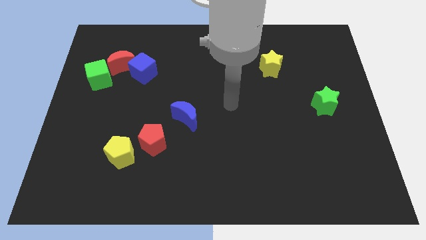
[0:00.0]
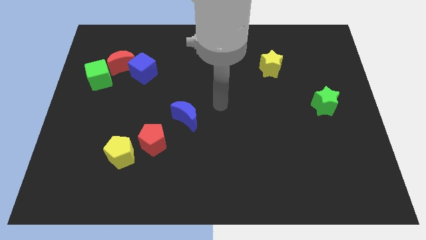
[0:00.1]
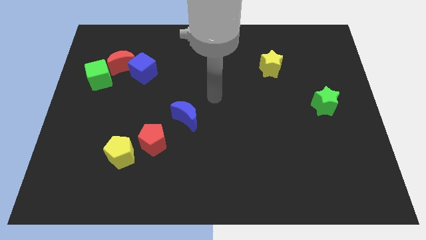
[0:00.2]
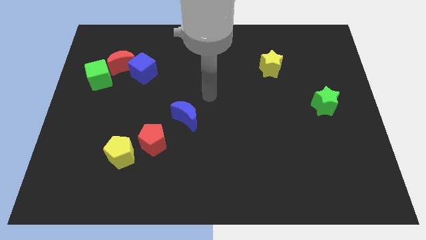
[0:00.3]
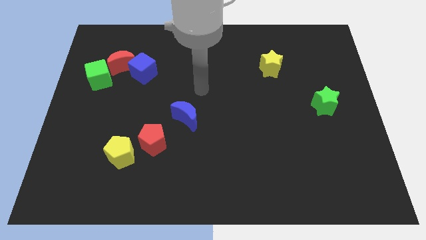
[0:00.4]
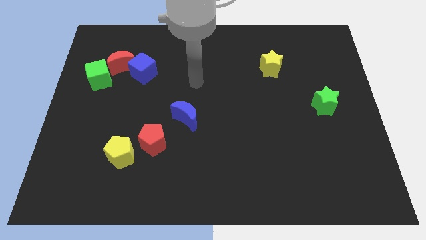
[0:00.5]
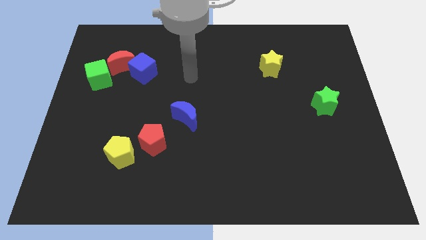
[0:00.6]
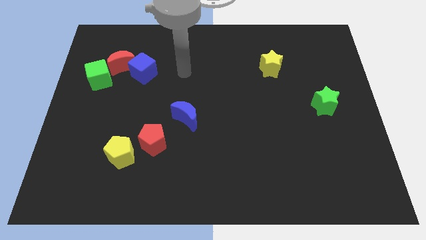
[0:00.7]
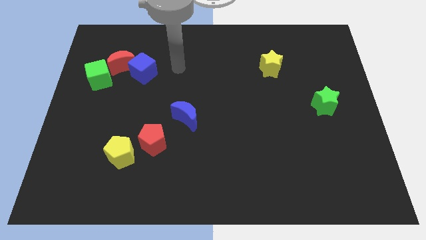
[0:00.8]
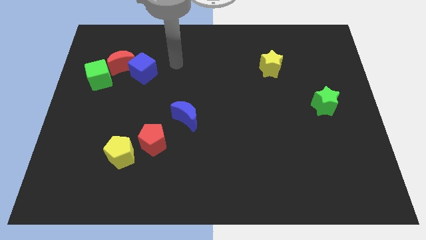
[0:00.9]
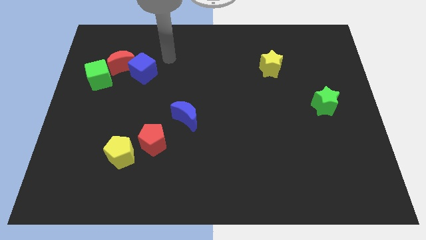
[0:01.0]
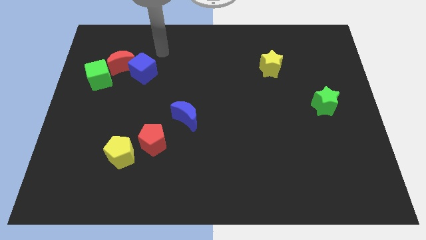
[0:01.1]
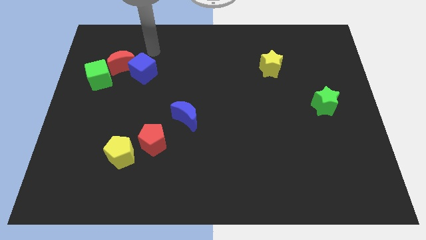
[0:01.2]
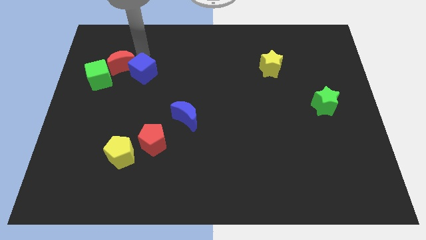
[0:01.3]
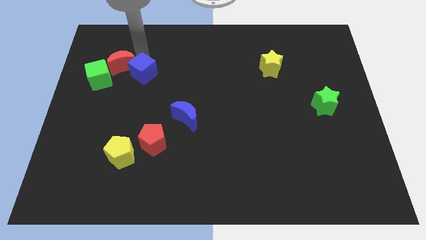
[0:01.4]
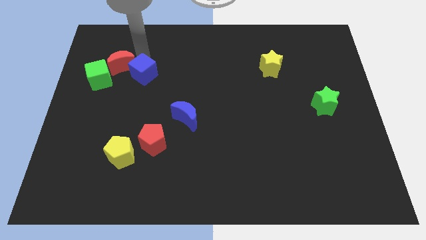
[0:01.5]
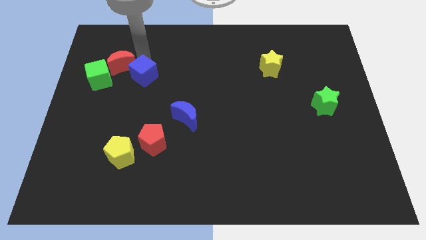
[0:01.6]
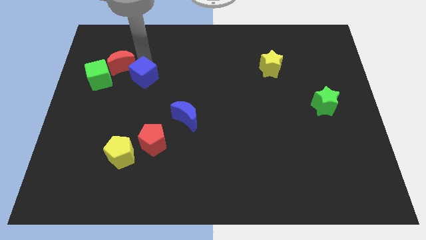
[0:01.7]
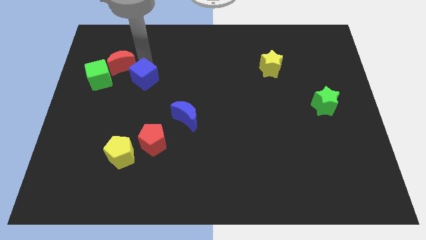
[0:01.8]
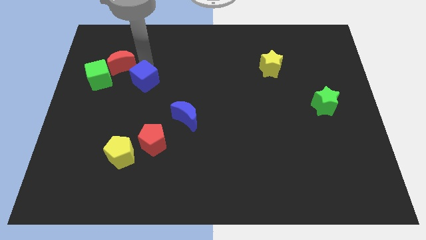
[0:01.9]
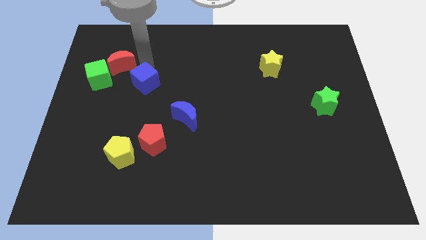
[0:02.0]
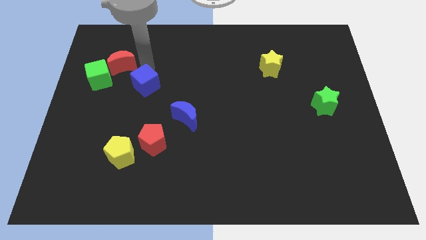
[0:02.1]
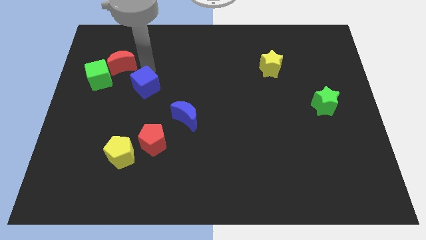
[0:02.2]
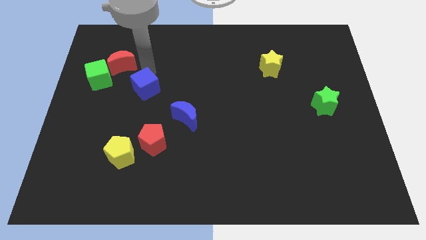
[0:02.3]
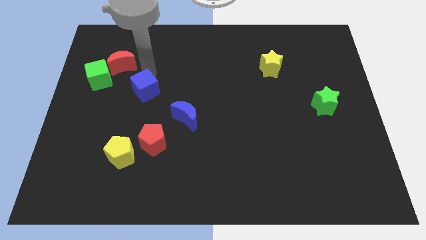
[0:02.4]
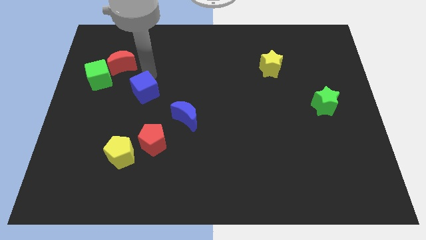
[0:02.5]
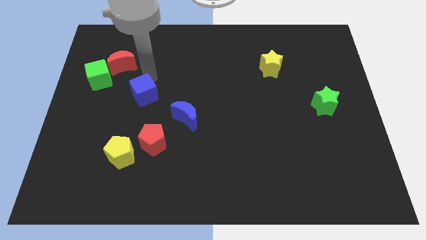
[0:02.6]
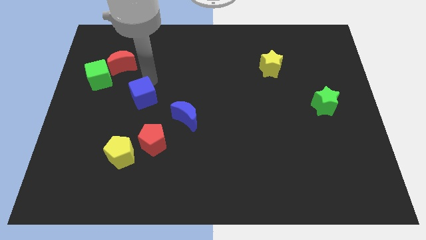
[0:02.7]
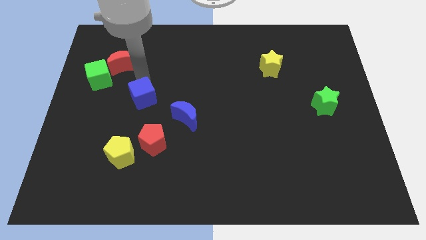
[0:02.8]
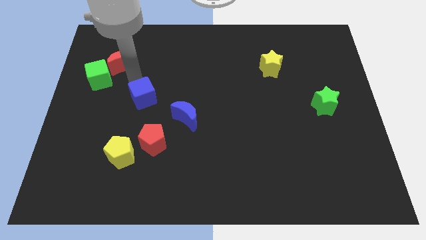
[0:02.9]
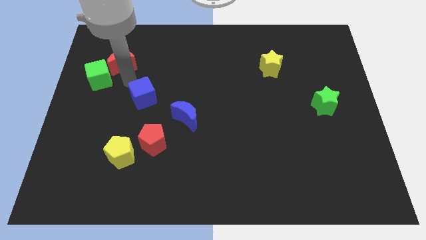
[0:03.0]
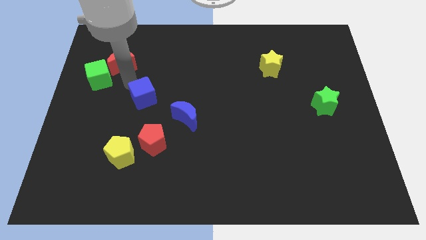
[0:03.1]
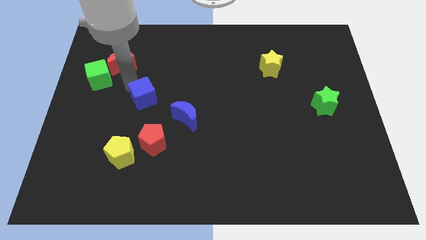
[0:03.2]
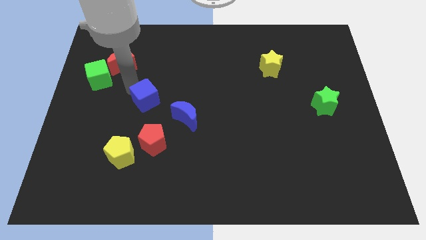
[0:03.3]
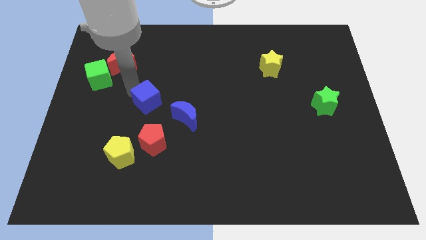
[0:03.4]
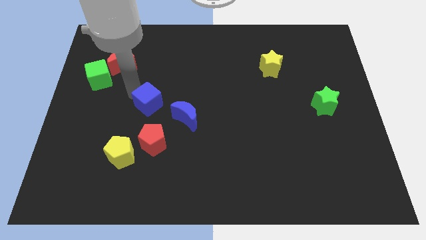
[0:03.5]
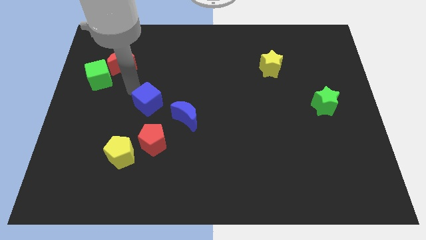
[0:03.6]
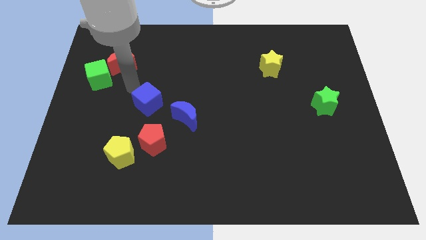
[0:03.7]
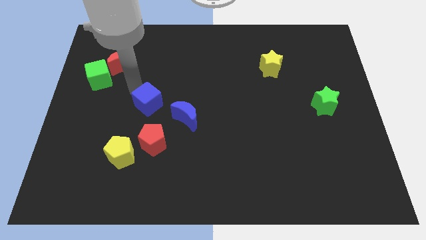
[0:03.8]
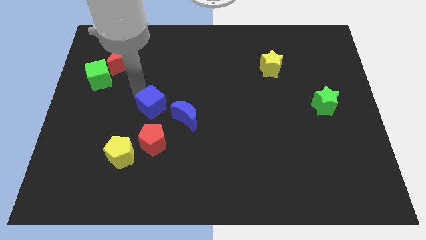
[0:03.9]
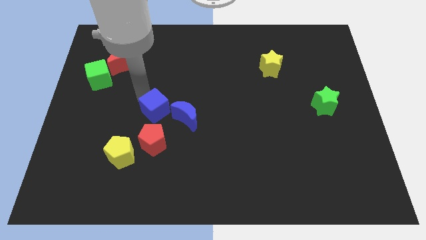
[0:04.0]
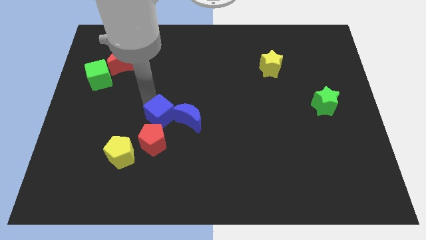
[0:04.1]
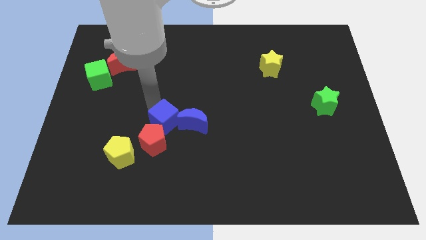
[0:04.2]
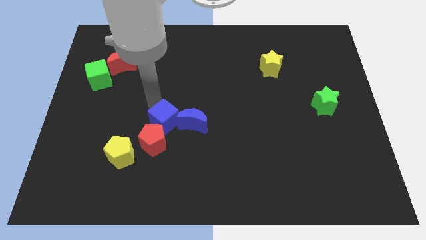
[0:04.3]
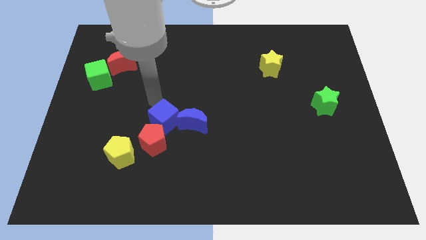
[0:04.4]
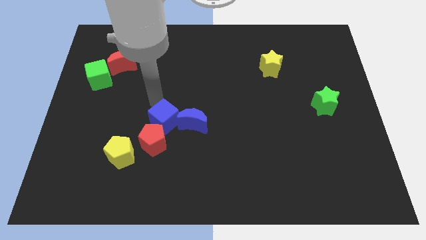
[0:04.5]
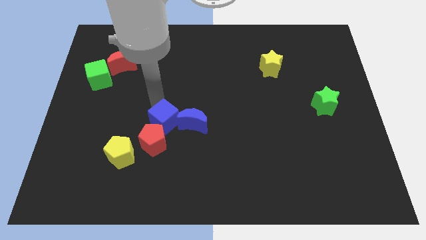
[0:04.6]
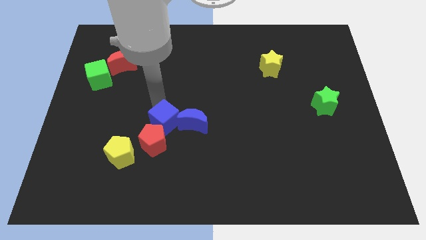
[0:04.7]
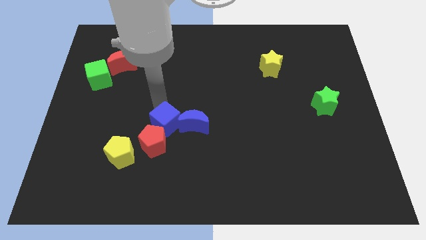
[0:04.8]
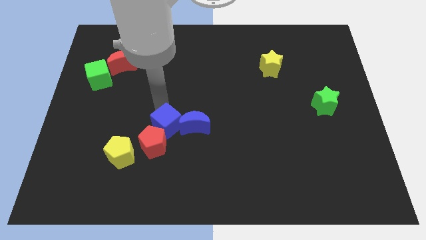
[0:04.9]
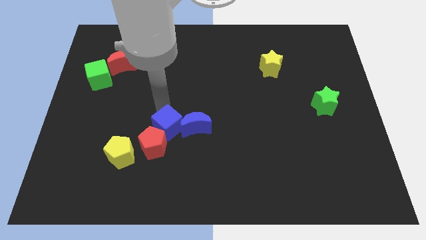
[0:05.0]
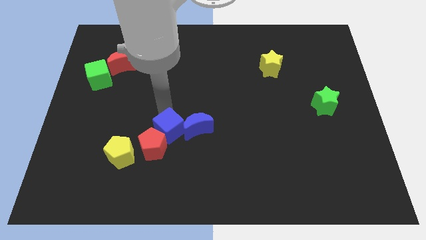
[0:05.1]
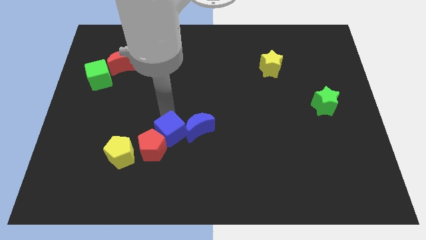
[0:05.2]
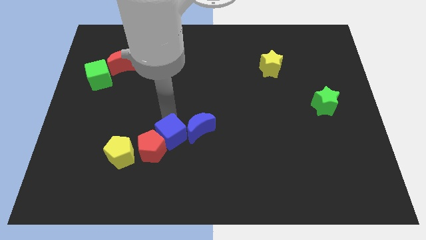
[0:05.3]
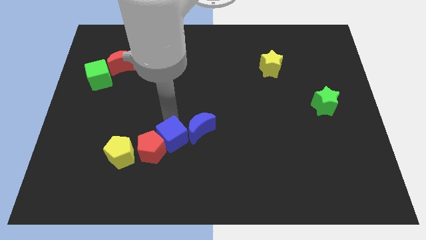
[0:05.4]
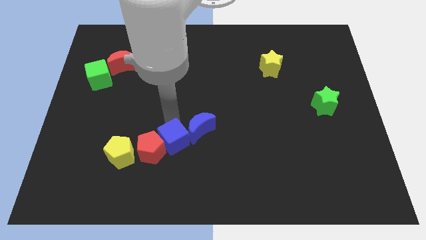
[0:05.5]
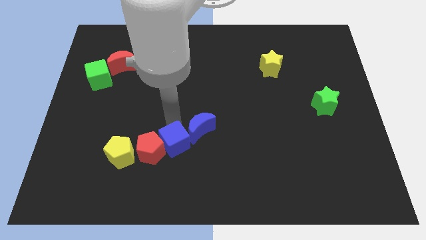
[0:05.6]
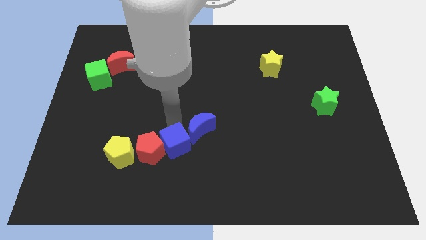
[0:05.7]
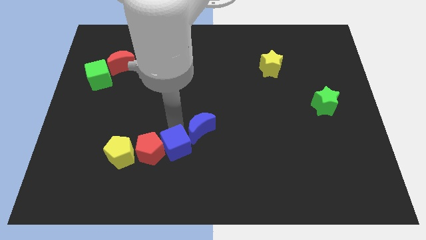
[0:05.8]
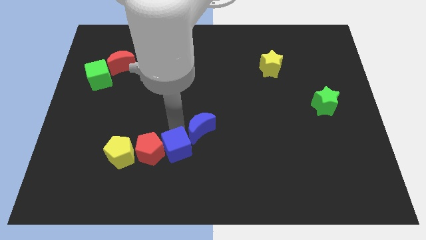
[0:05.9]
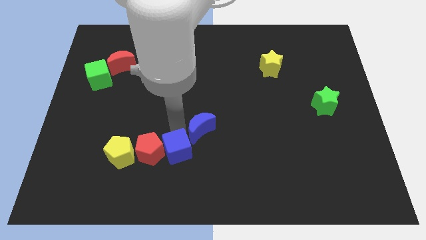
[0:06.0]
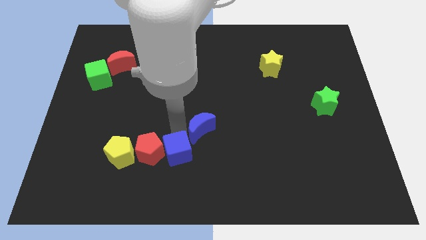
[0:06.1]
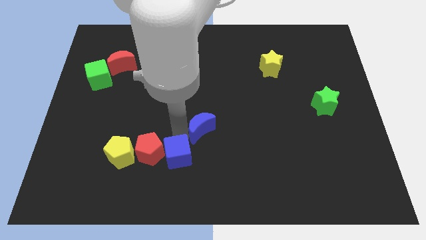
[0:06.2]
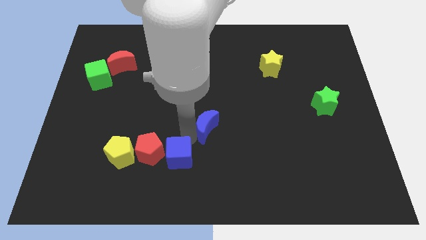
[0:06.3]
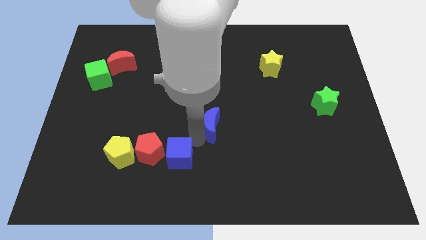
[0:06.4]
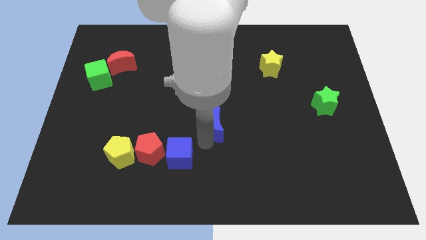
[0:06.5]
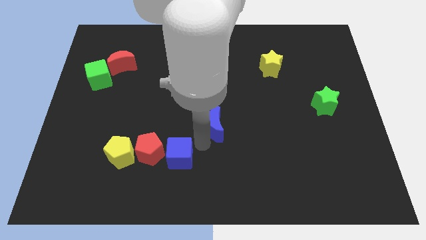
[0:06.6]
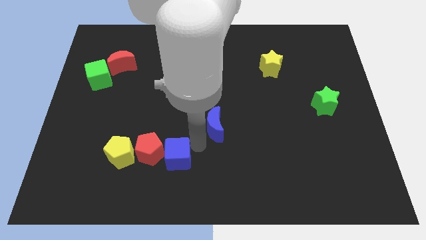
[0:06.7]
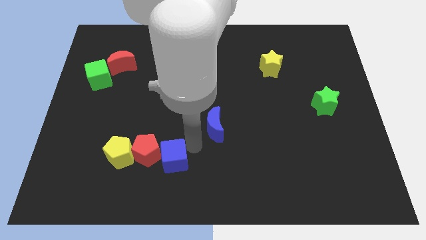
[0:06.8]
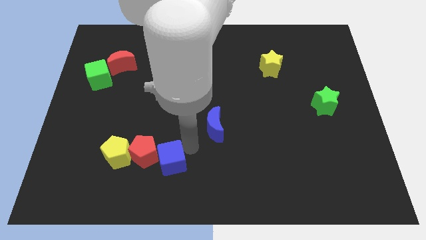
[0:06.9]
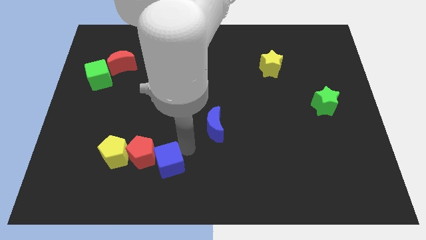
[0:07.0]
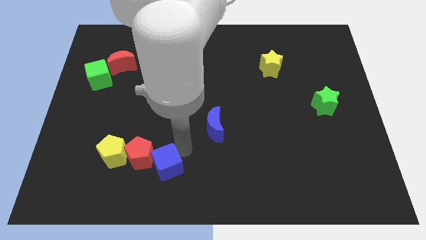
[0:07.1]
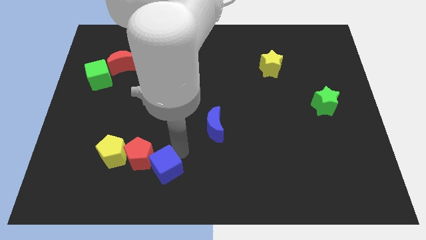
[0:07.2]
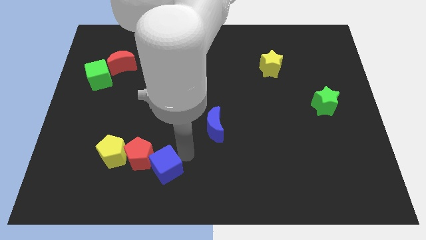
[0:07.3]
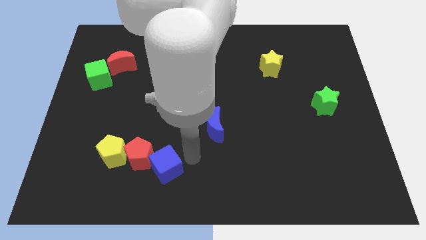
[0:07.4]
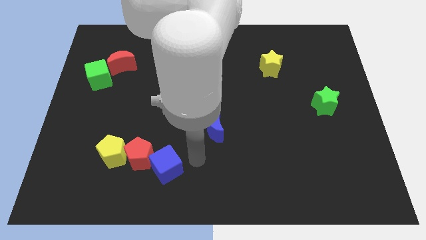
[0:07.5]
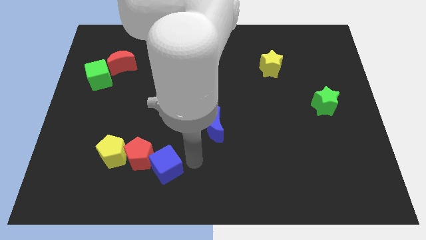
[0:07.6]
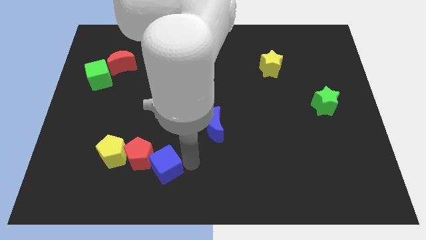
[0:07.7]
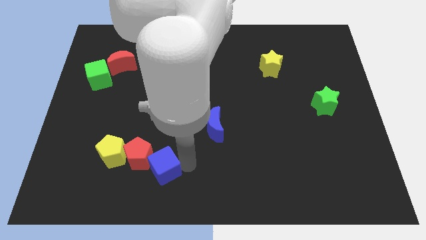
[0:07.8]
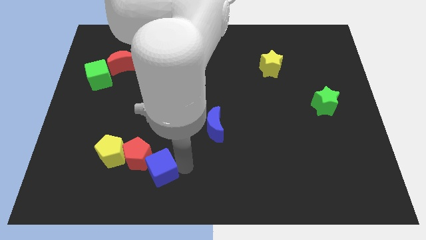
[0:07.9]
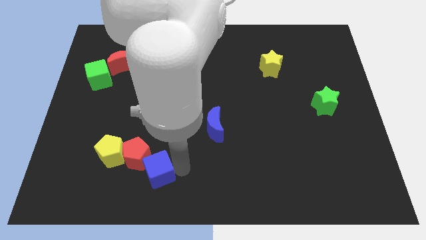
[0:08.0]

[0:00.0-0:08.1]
push the blue cube to the bottom right of the yellow pentagon
